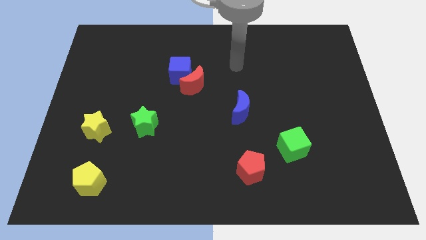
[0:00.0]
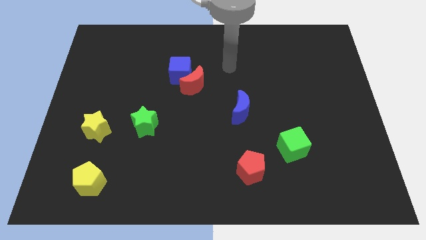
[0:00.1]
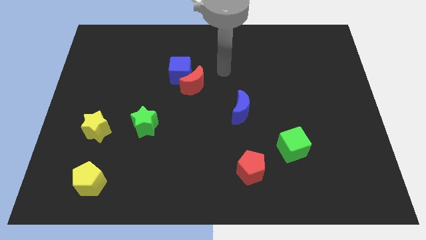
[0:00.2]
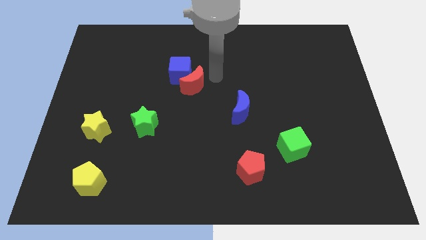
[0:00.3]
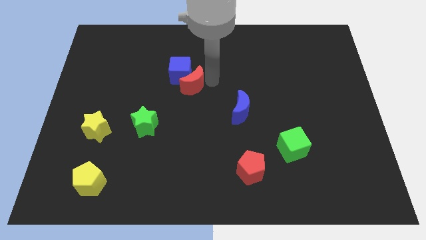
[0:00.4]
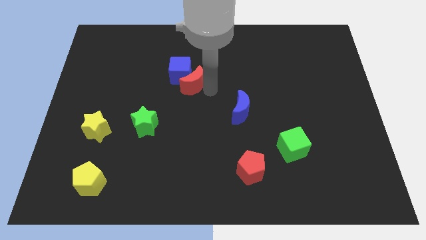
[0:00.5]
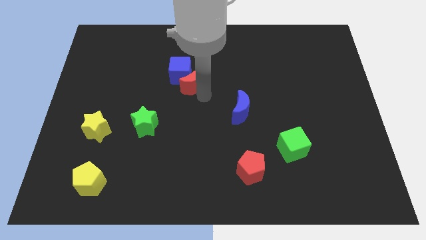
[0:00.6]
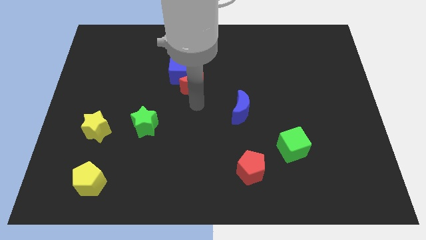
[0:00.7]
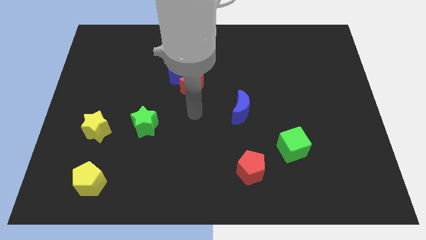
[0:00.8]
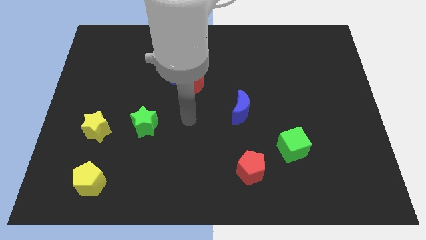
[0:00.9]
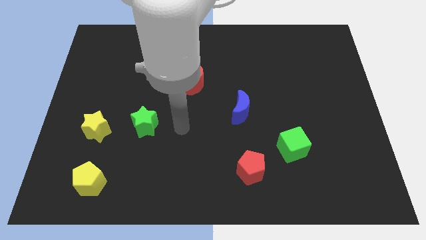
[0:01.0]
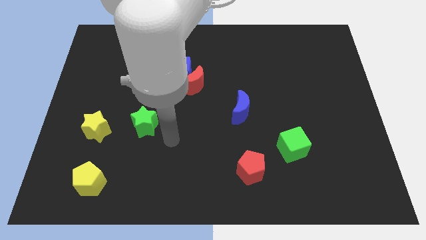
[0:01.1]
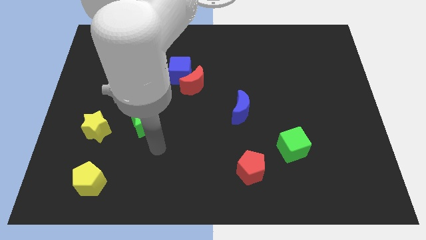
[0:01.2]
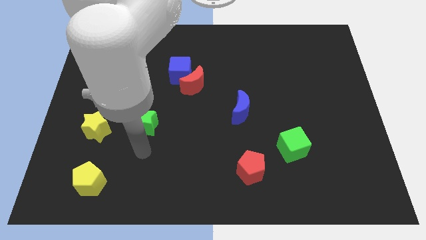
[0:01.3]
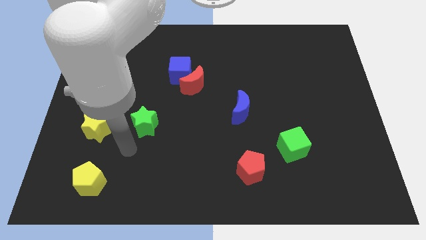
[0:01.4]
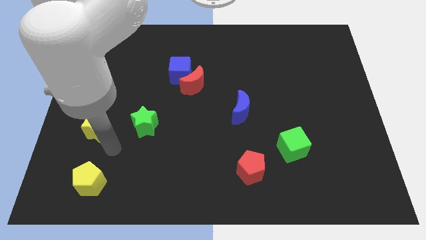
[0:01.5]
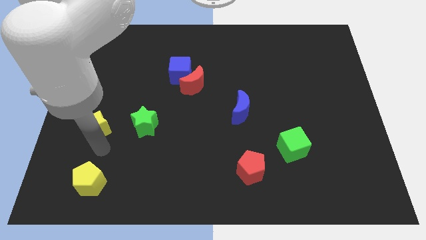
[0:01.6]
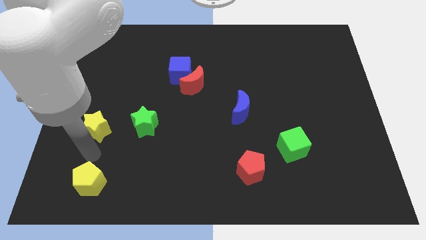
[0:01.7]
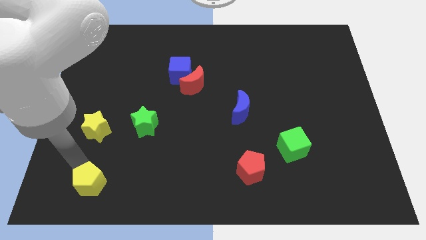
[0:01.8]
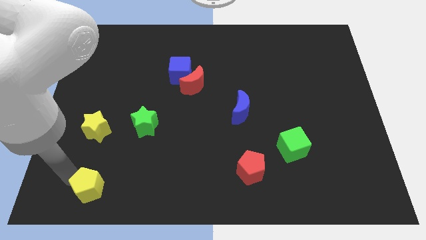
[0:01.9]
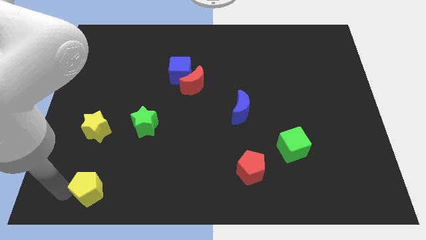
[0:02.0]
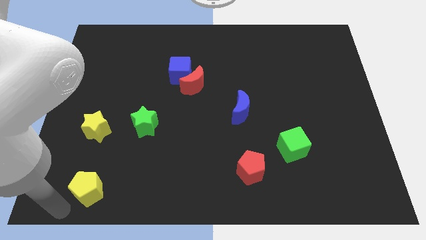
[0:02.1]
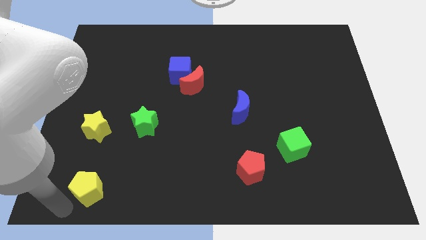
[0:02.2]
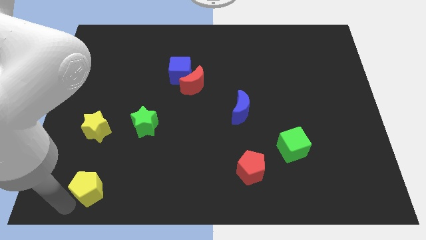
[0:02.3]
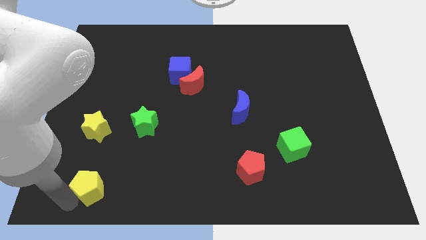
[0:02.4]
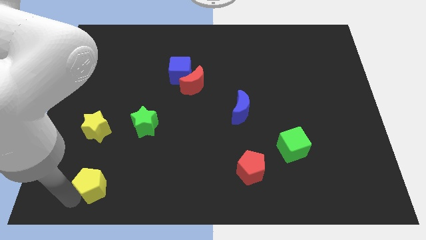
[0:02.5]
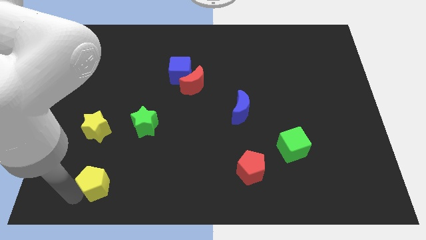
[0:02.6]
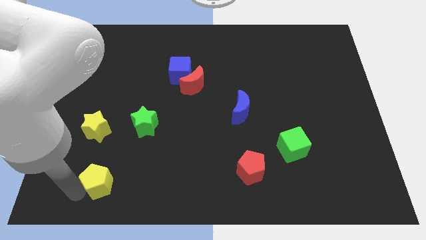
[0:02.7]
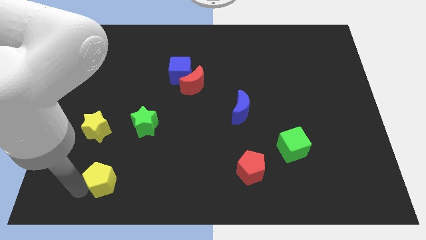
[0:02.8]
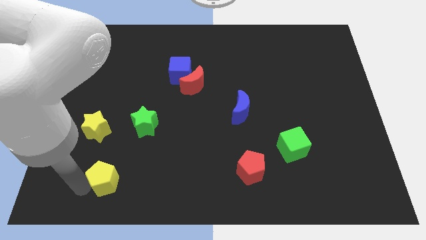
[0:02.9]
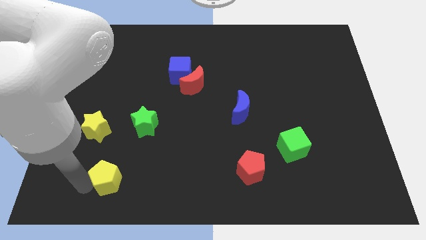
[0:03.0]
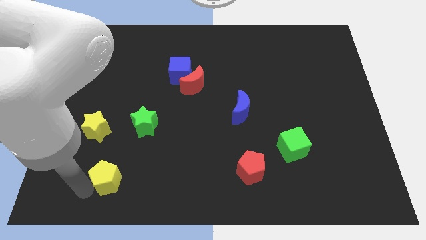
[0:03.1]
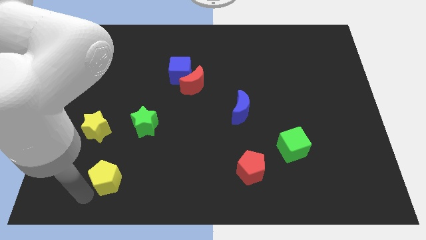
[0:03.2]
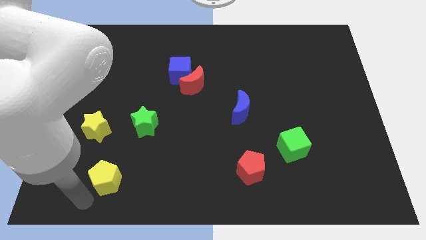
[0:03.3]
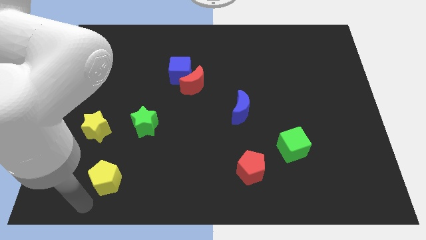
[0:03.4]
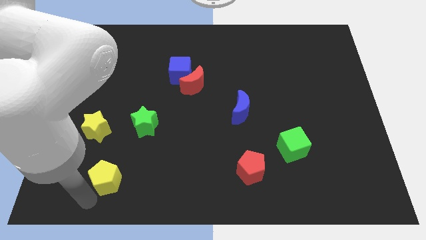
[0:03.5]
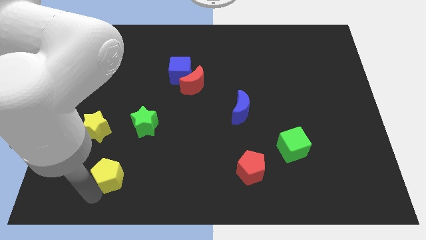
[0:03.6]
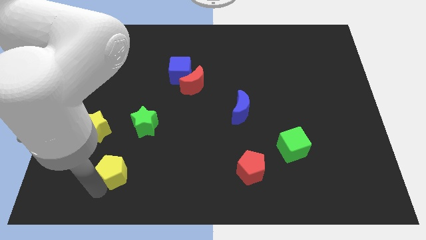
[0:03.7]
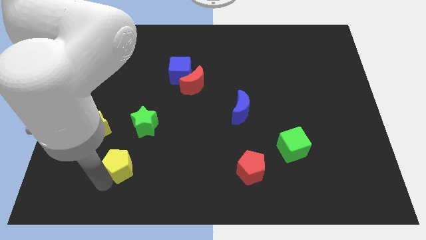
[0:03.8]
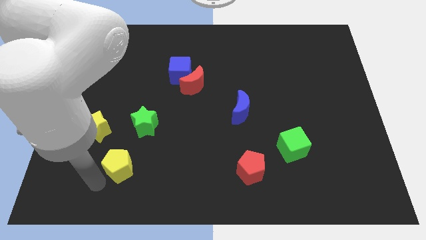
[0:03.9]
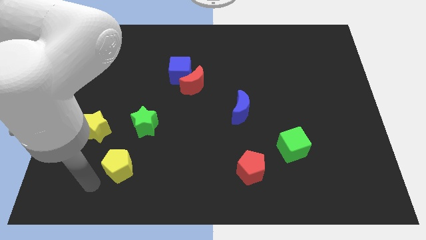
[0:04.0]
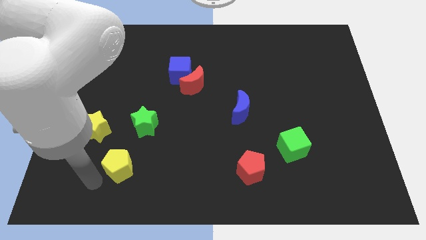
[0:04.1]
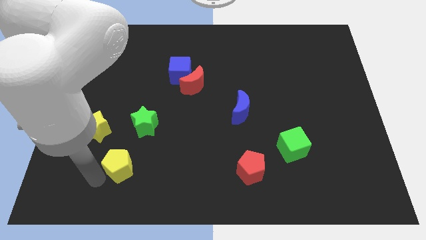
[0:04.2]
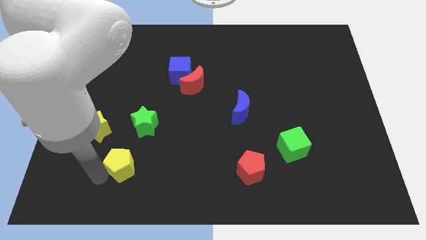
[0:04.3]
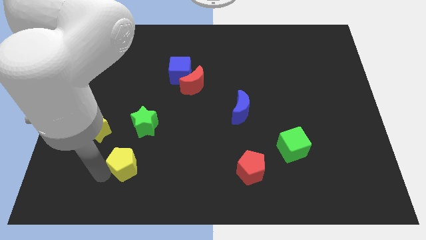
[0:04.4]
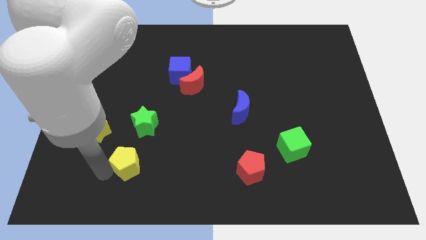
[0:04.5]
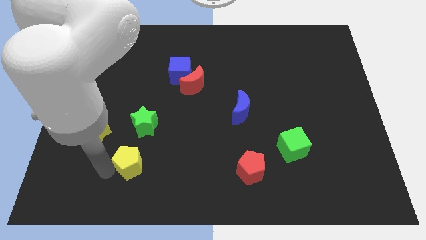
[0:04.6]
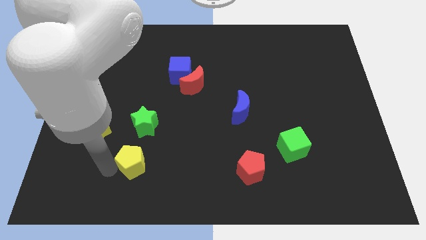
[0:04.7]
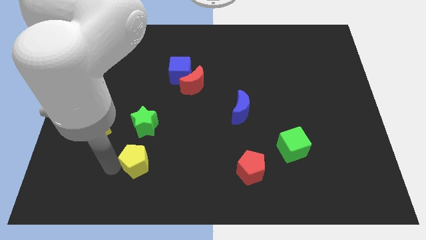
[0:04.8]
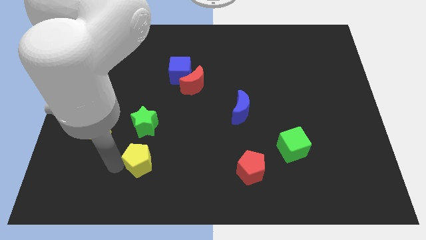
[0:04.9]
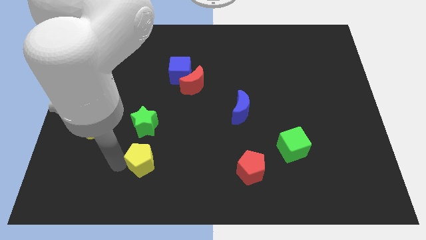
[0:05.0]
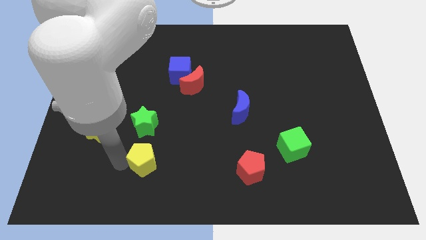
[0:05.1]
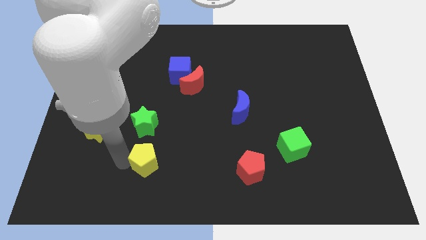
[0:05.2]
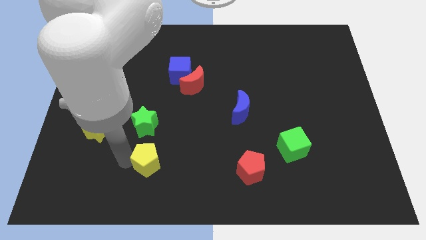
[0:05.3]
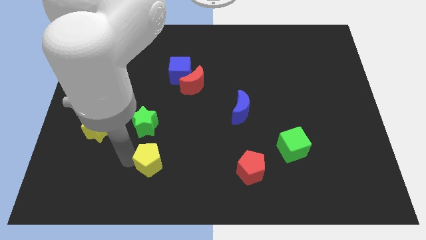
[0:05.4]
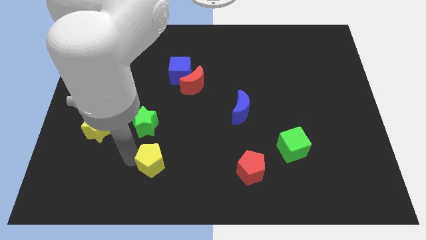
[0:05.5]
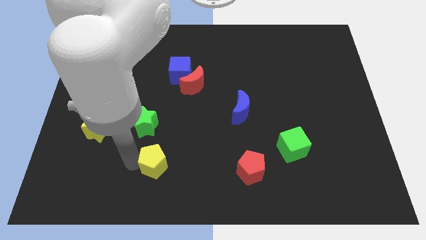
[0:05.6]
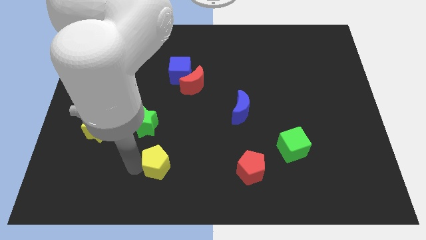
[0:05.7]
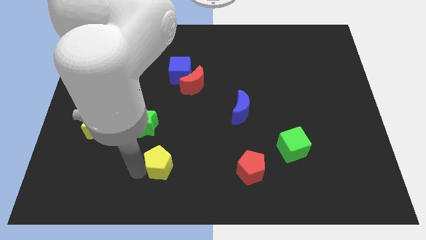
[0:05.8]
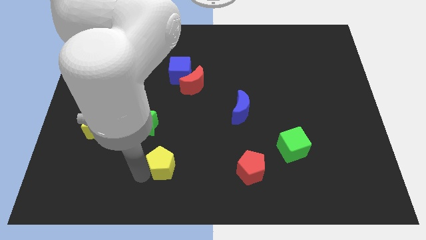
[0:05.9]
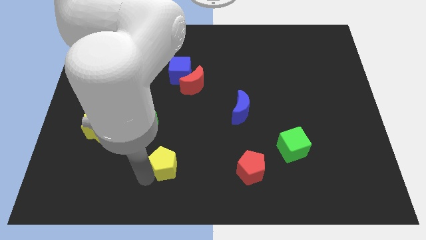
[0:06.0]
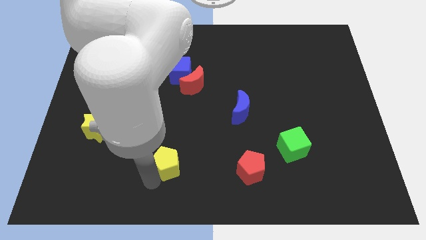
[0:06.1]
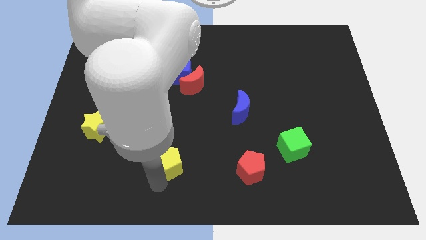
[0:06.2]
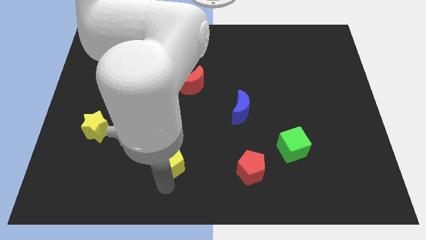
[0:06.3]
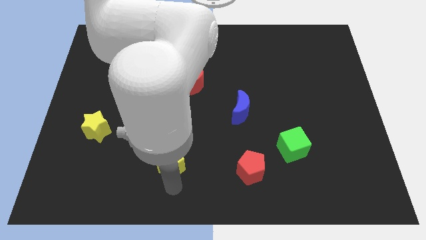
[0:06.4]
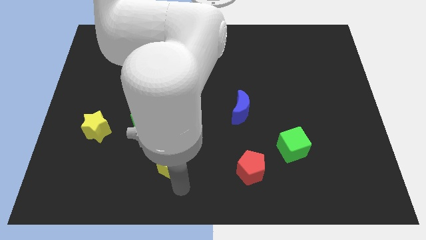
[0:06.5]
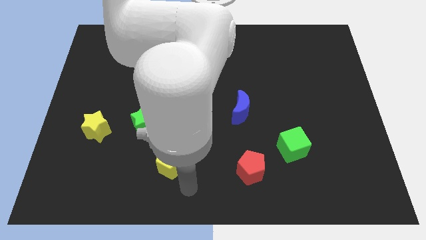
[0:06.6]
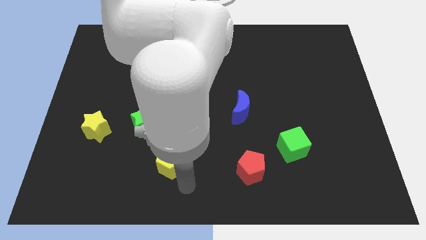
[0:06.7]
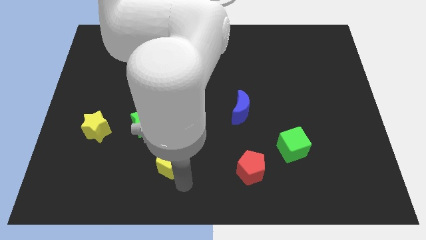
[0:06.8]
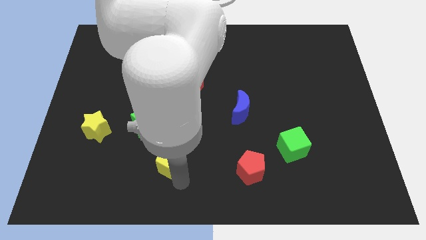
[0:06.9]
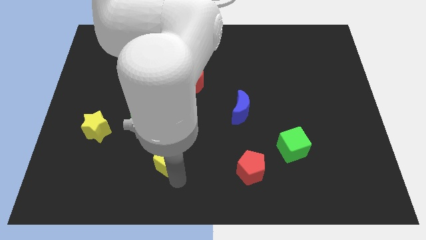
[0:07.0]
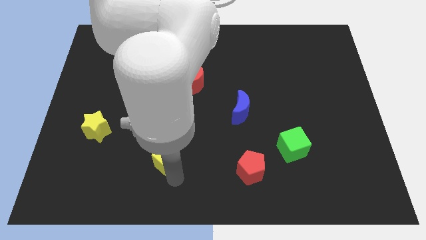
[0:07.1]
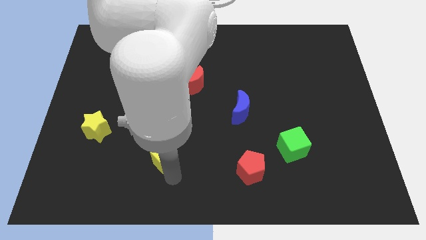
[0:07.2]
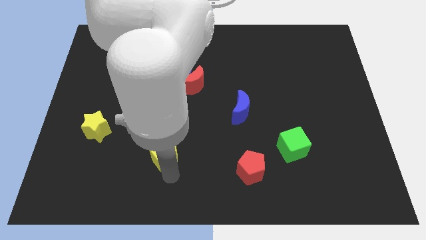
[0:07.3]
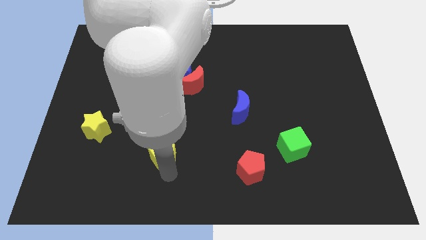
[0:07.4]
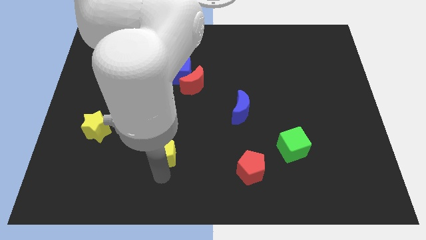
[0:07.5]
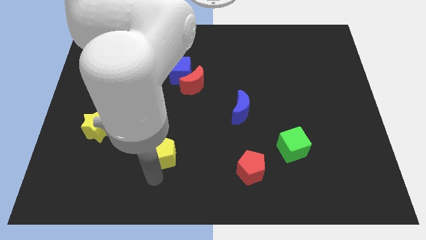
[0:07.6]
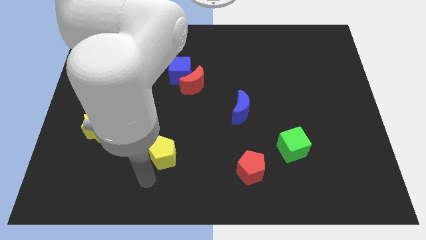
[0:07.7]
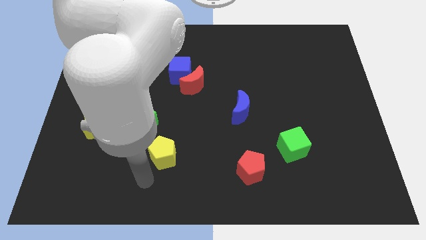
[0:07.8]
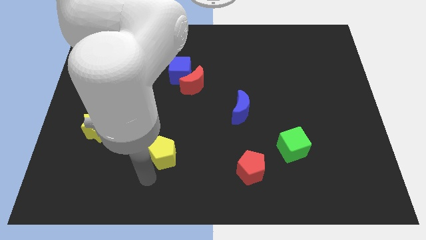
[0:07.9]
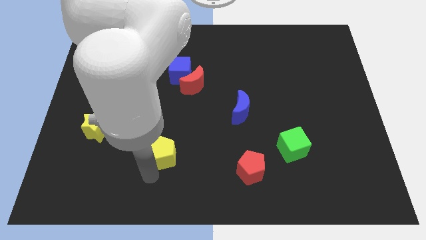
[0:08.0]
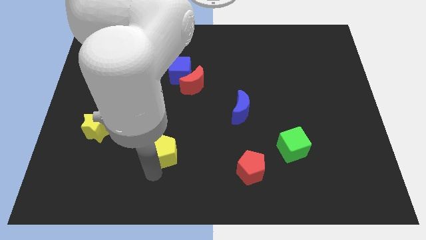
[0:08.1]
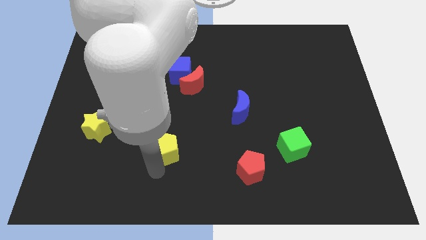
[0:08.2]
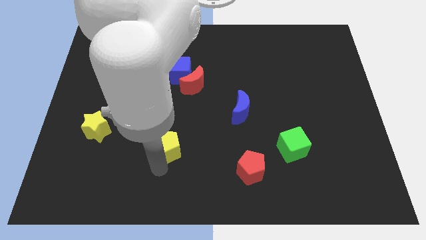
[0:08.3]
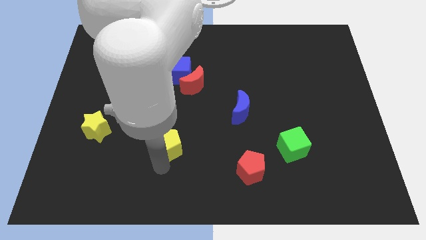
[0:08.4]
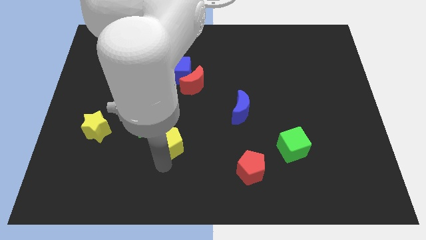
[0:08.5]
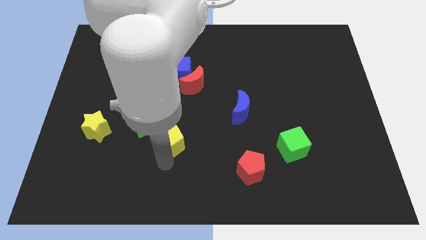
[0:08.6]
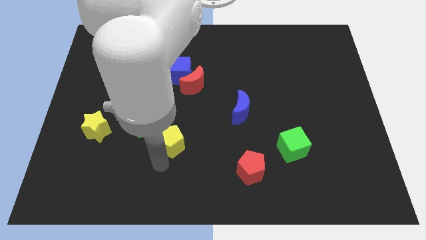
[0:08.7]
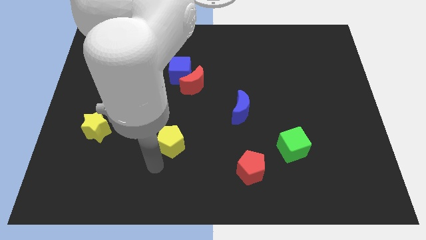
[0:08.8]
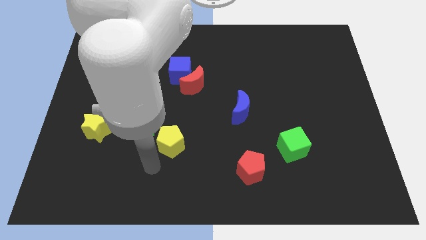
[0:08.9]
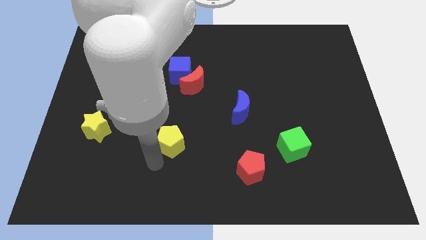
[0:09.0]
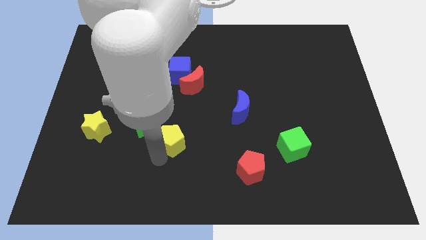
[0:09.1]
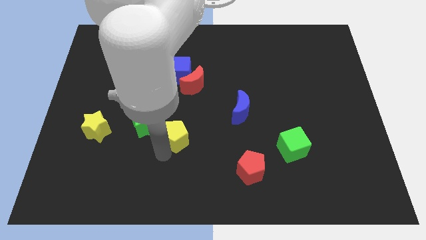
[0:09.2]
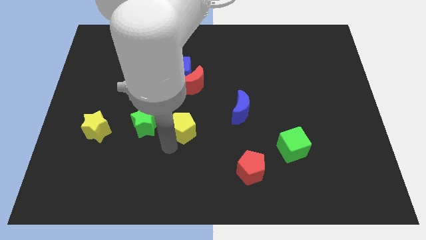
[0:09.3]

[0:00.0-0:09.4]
put the yellow pentagon to the middle of the board
